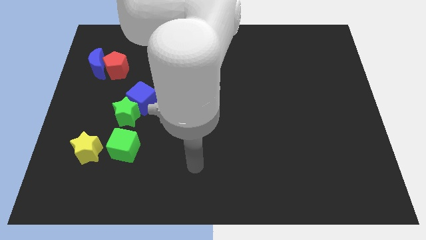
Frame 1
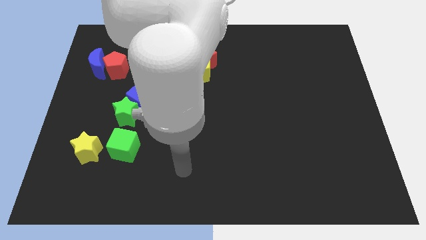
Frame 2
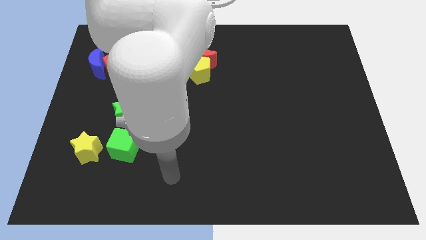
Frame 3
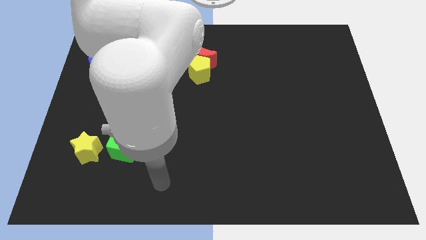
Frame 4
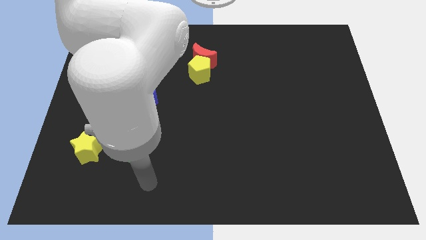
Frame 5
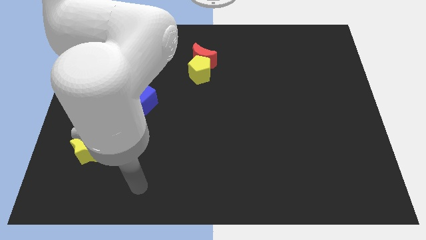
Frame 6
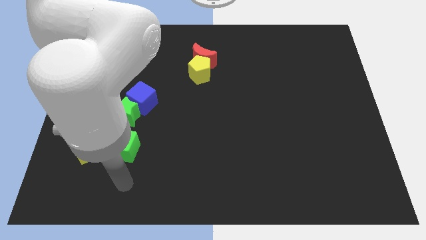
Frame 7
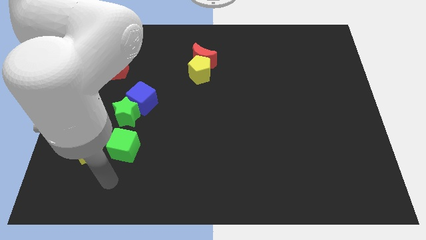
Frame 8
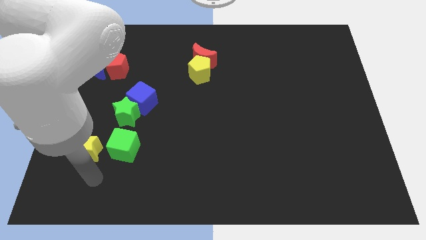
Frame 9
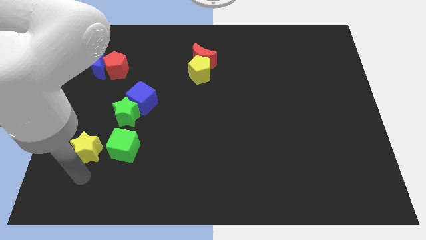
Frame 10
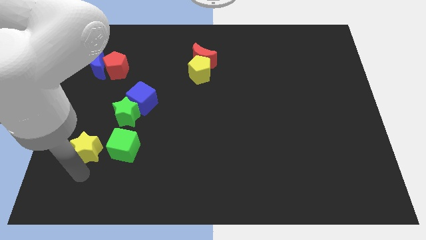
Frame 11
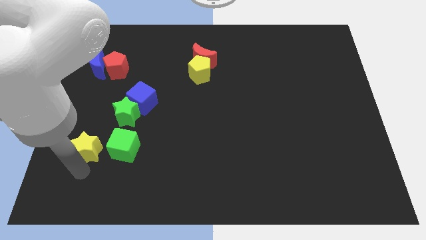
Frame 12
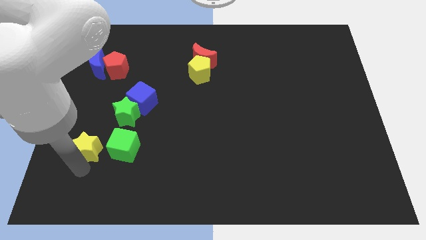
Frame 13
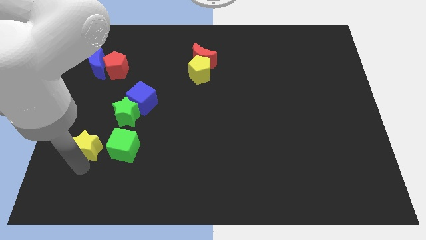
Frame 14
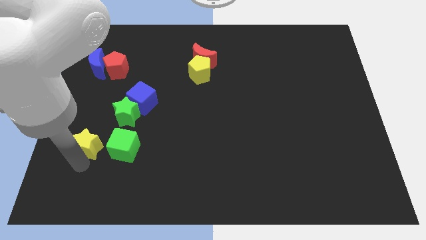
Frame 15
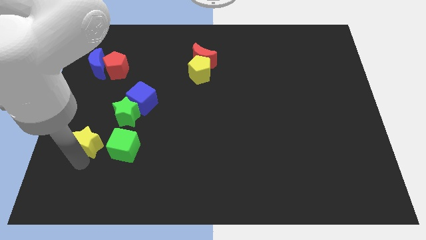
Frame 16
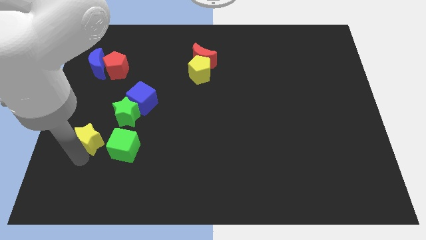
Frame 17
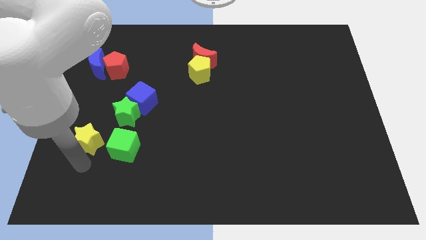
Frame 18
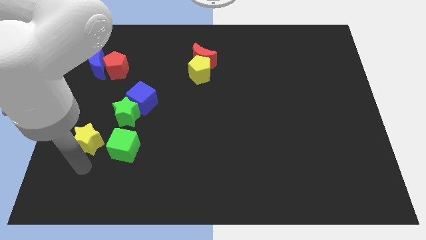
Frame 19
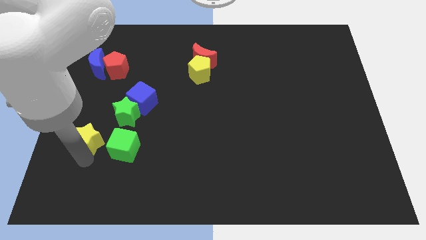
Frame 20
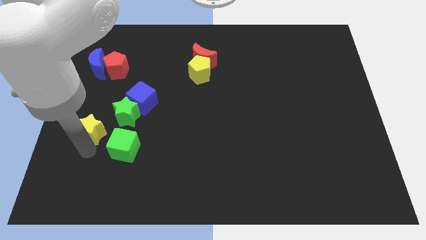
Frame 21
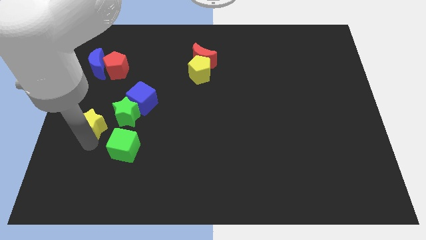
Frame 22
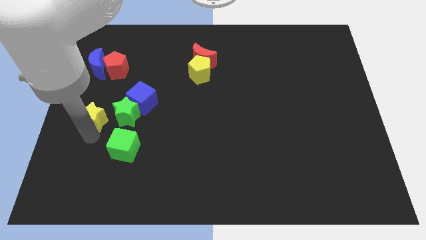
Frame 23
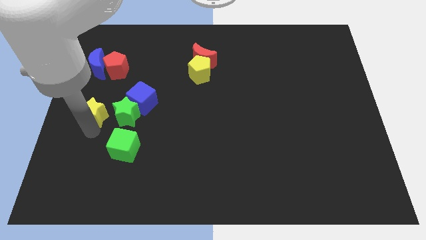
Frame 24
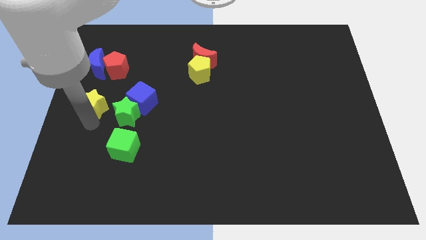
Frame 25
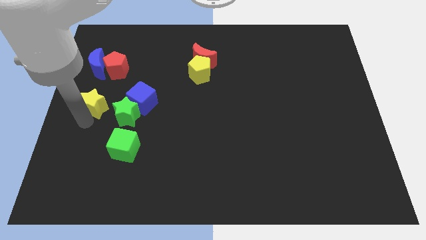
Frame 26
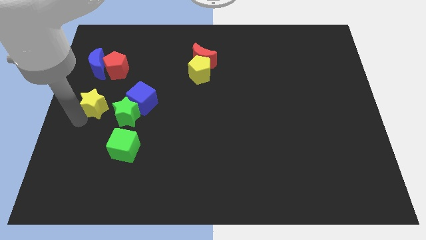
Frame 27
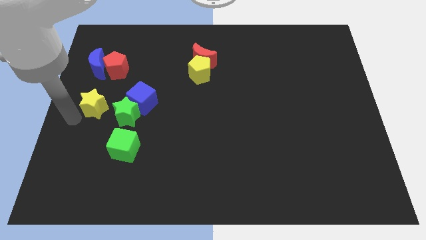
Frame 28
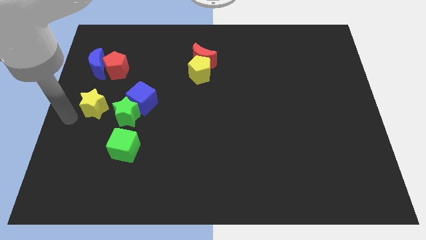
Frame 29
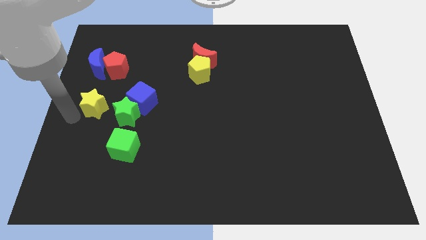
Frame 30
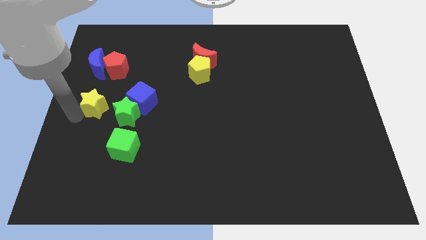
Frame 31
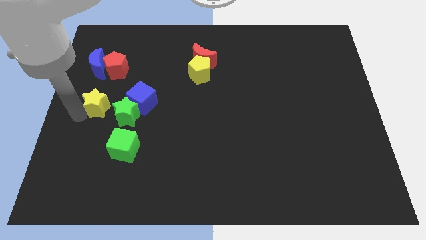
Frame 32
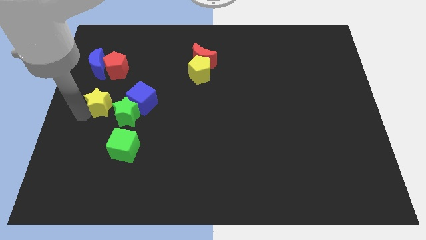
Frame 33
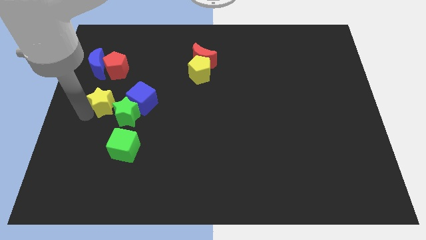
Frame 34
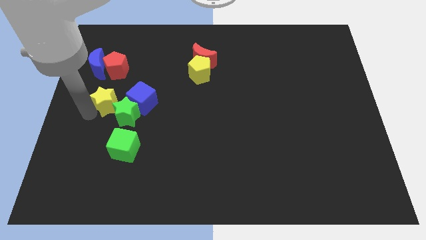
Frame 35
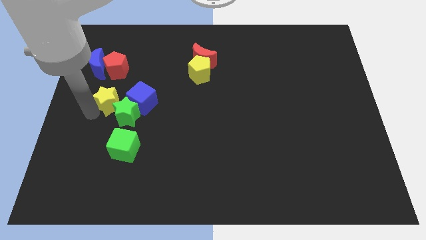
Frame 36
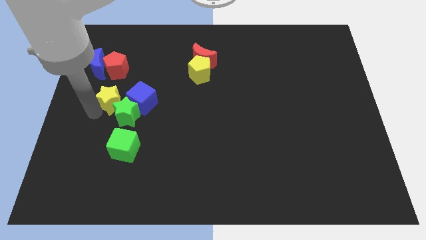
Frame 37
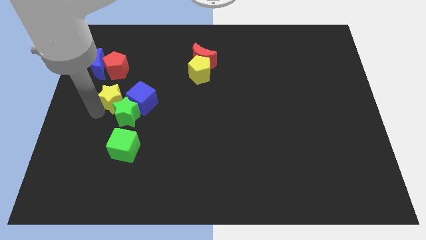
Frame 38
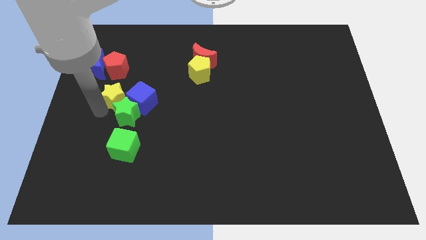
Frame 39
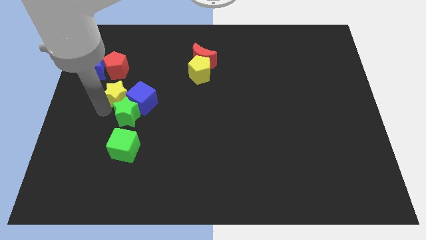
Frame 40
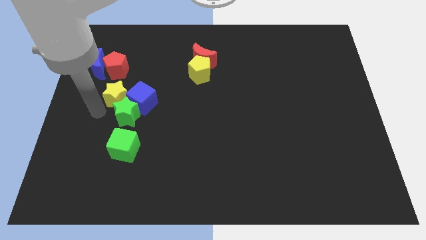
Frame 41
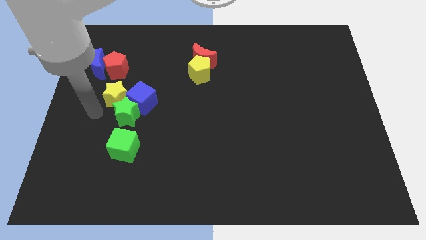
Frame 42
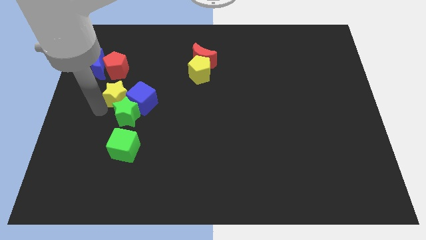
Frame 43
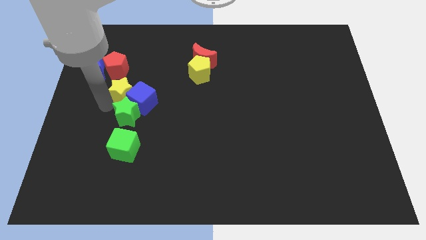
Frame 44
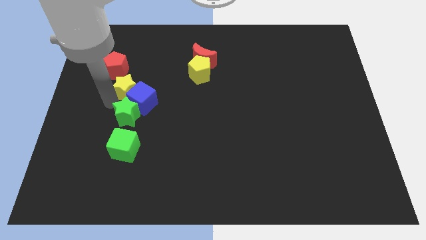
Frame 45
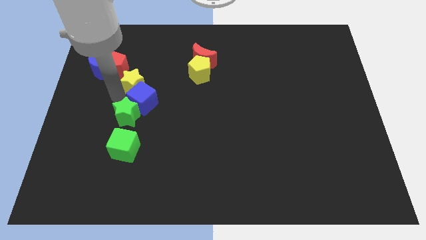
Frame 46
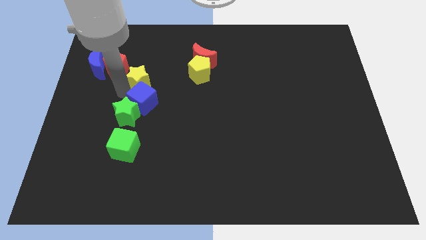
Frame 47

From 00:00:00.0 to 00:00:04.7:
move the yellow star left of the yellow pentagon

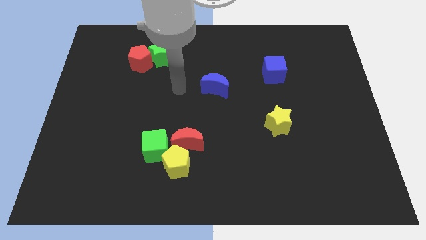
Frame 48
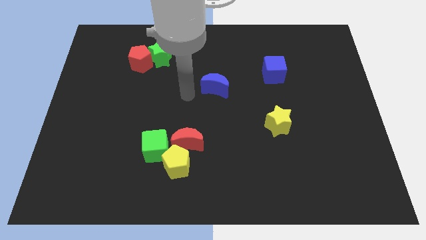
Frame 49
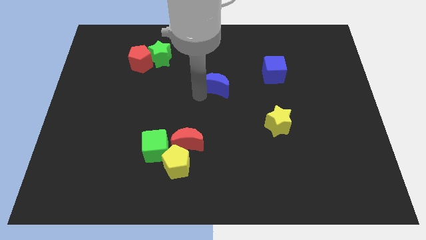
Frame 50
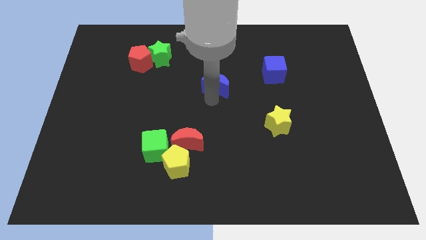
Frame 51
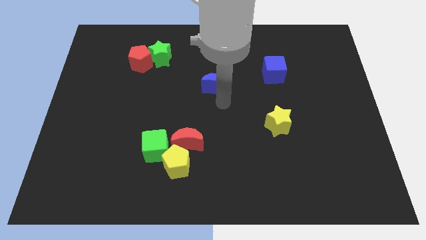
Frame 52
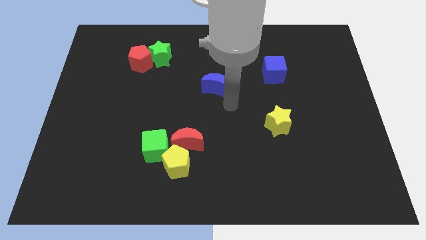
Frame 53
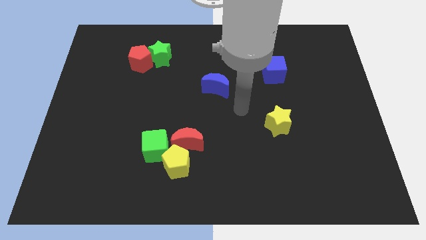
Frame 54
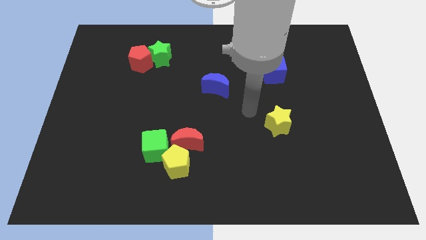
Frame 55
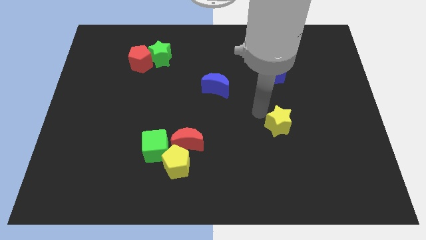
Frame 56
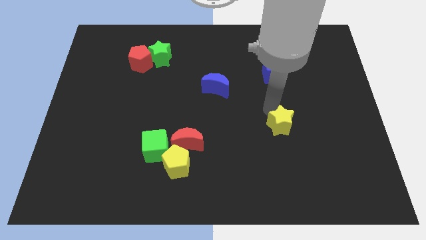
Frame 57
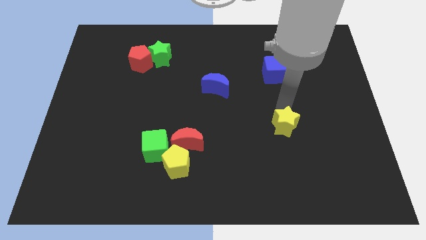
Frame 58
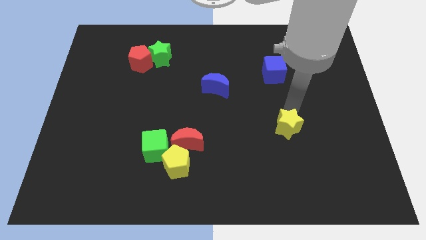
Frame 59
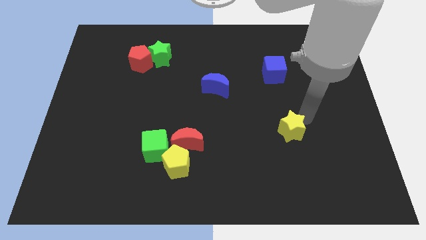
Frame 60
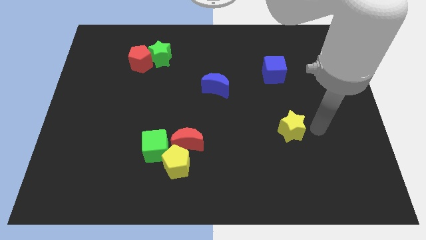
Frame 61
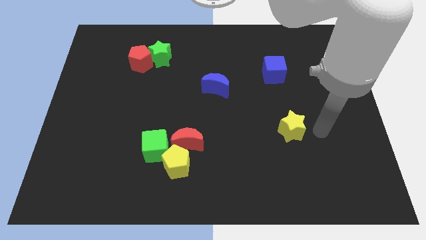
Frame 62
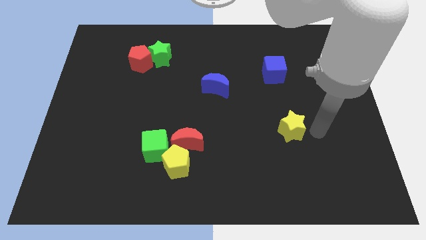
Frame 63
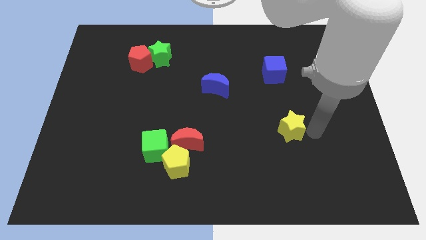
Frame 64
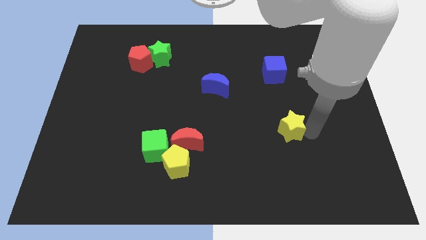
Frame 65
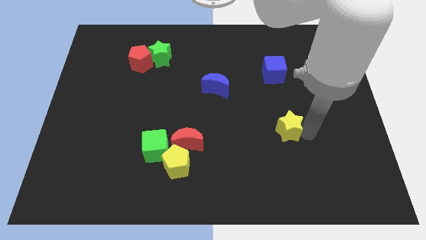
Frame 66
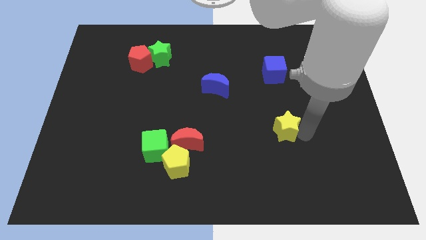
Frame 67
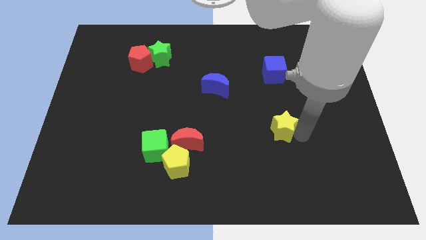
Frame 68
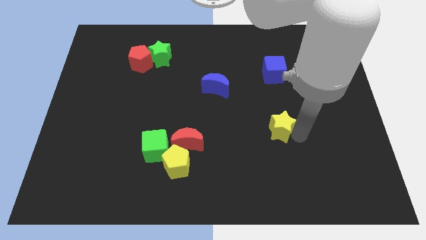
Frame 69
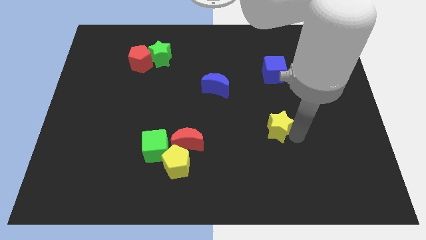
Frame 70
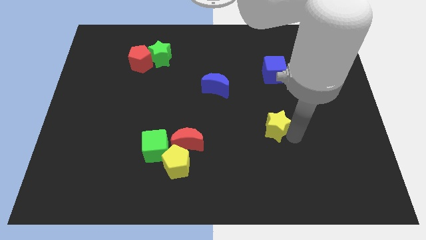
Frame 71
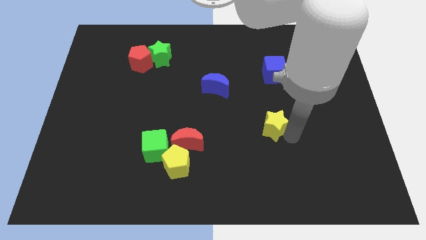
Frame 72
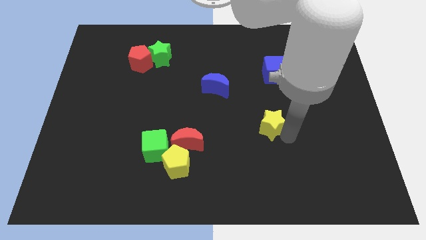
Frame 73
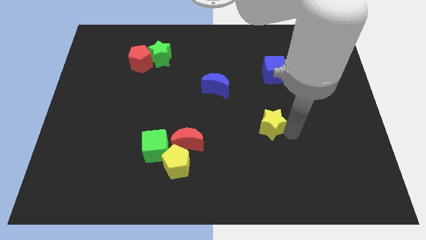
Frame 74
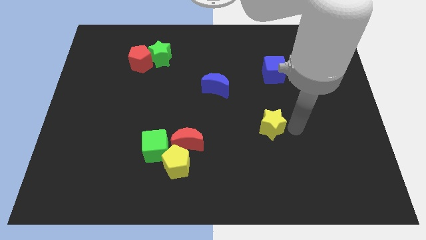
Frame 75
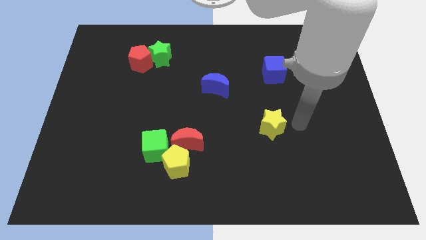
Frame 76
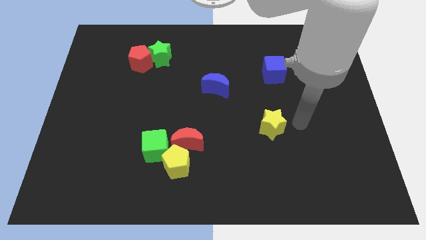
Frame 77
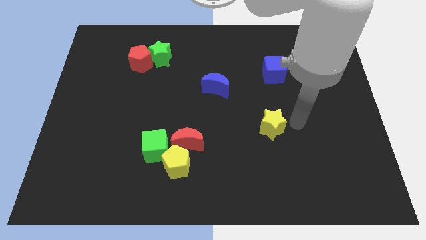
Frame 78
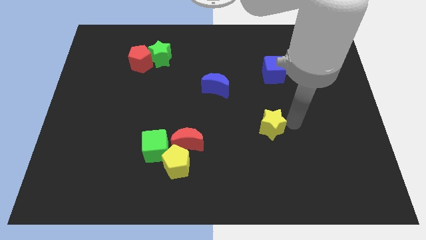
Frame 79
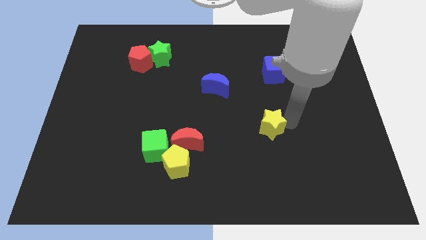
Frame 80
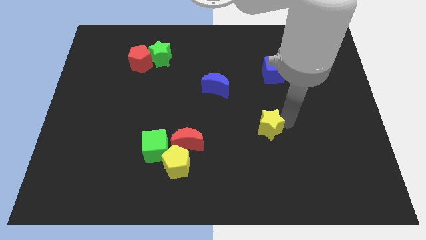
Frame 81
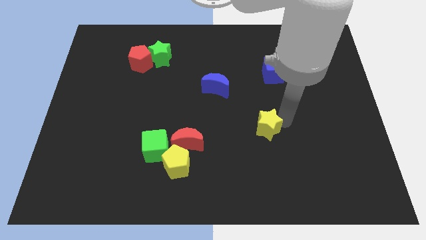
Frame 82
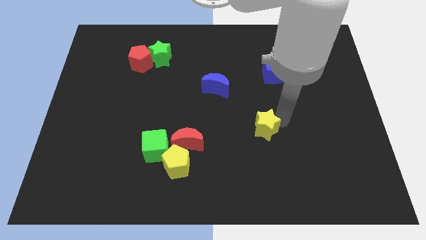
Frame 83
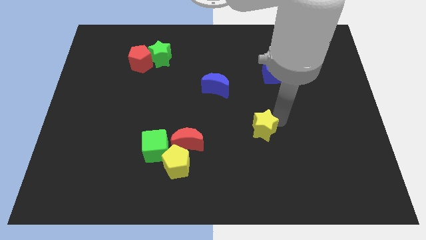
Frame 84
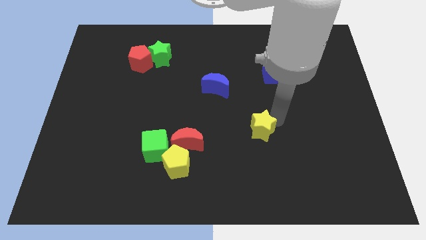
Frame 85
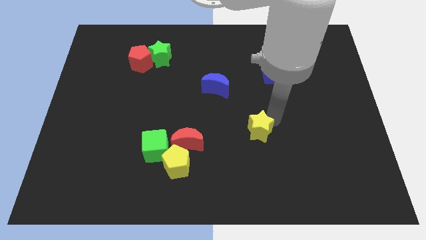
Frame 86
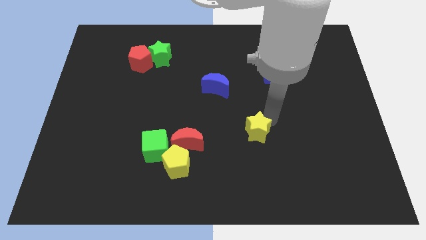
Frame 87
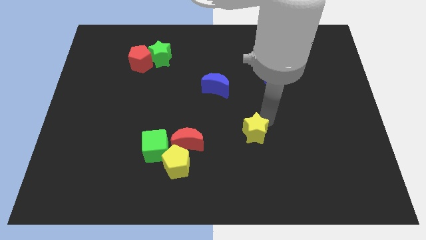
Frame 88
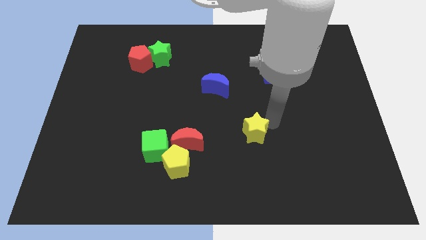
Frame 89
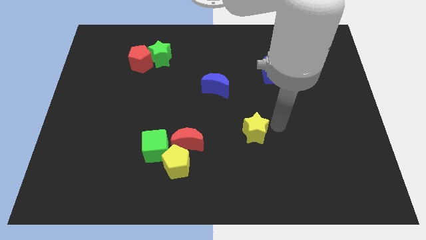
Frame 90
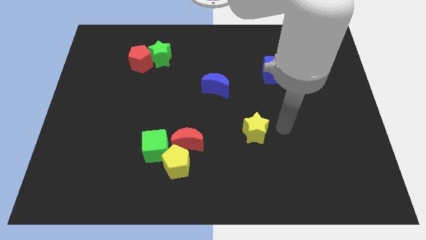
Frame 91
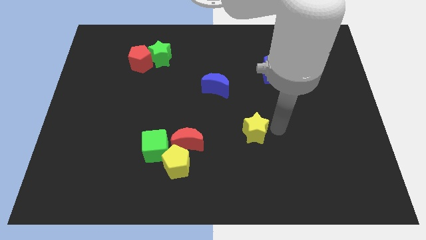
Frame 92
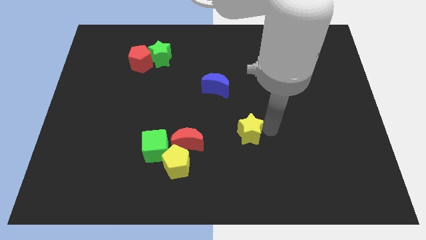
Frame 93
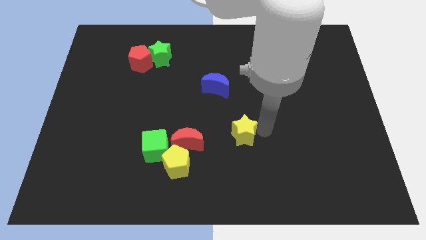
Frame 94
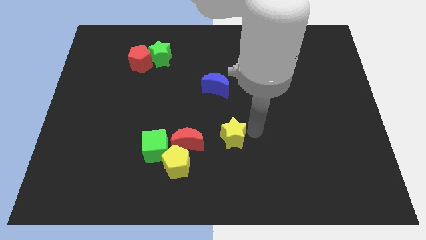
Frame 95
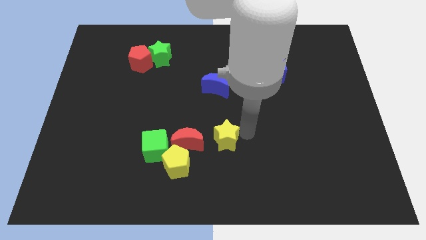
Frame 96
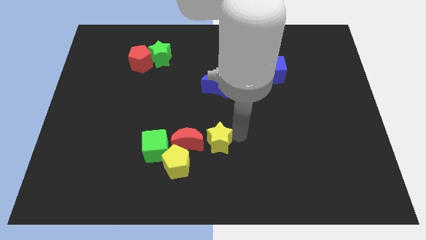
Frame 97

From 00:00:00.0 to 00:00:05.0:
push the yellow star to the top right of the yellow pentagon
